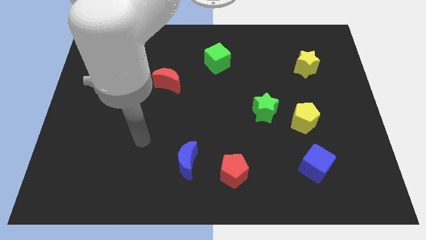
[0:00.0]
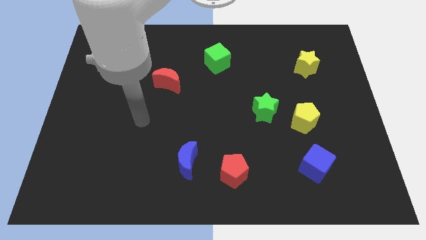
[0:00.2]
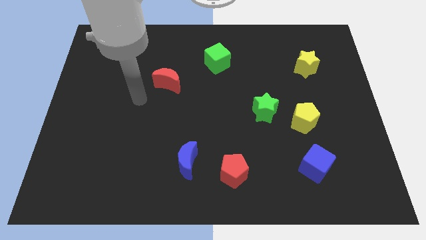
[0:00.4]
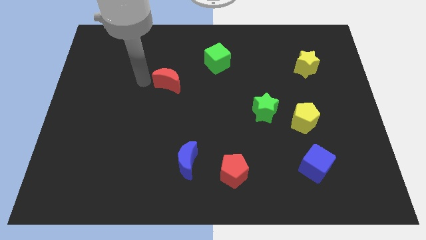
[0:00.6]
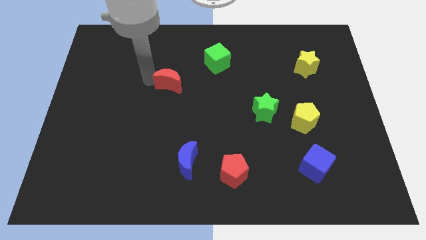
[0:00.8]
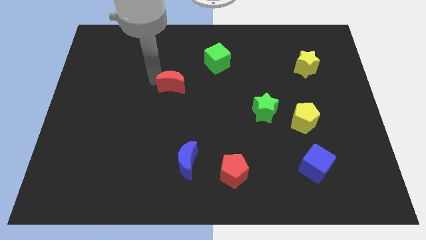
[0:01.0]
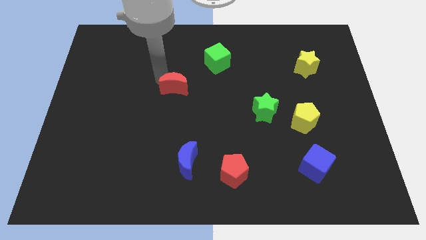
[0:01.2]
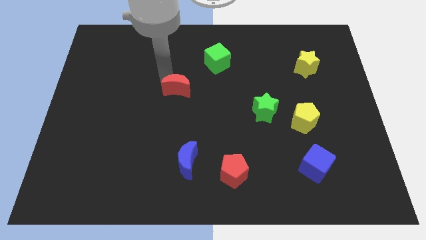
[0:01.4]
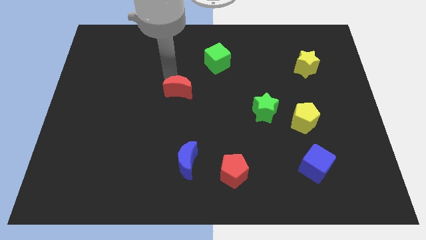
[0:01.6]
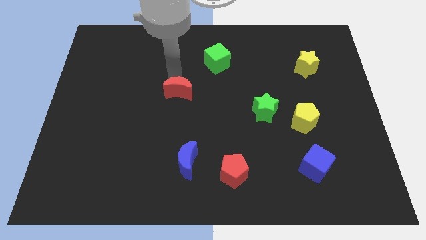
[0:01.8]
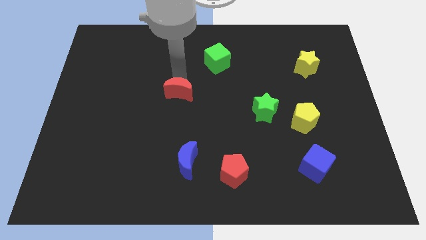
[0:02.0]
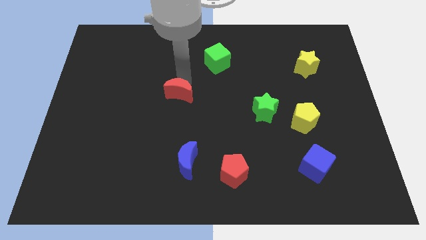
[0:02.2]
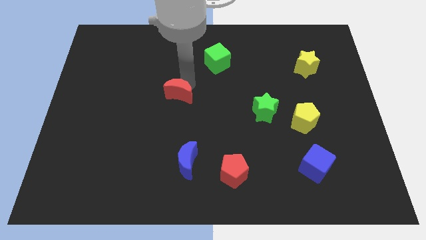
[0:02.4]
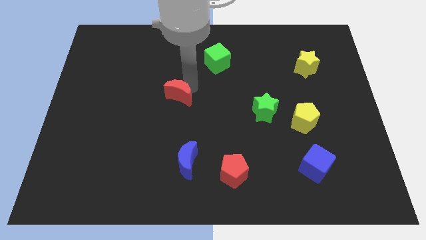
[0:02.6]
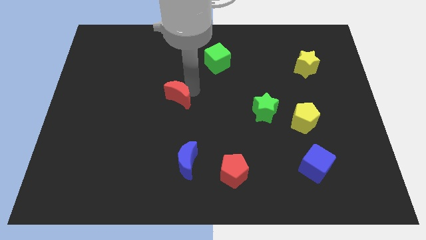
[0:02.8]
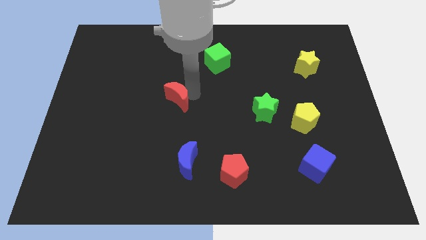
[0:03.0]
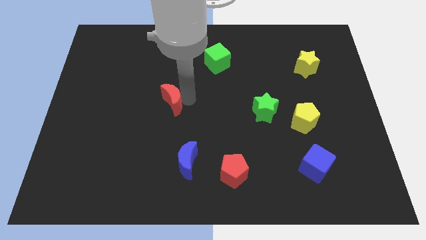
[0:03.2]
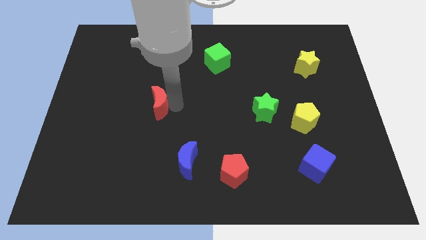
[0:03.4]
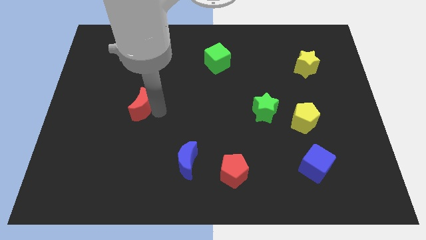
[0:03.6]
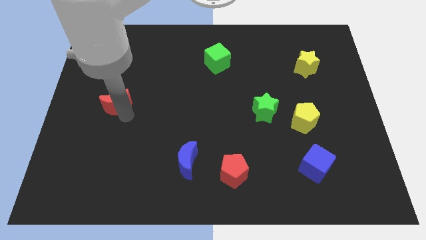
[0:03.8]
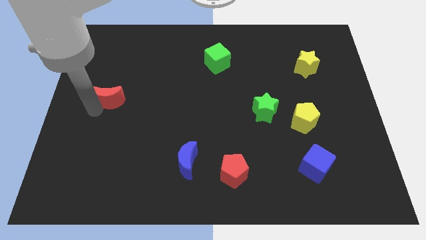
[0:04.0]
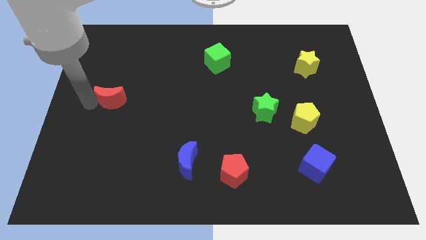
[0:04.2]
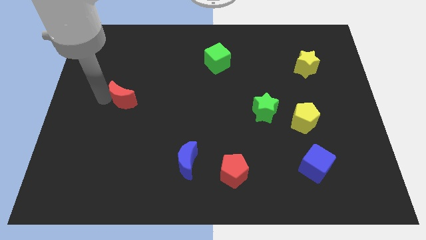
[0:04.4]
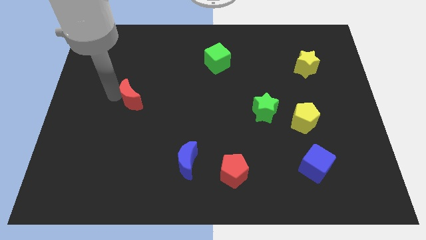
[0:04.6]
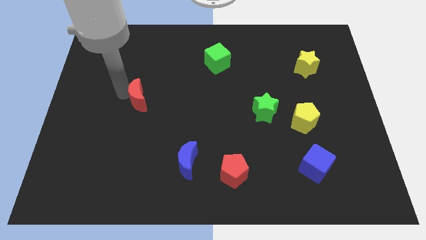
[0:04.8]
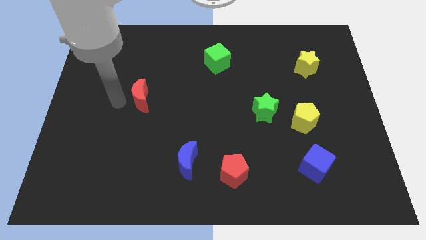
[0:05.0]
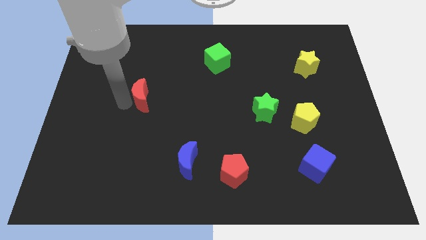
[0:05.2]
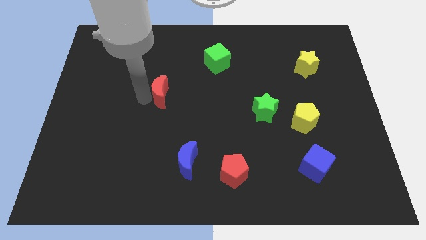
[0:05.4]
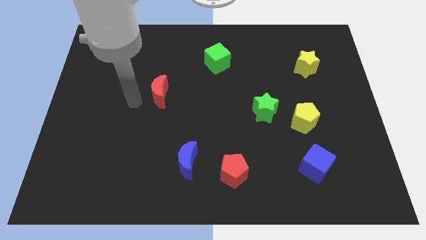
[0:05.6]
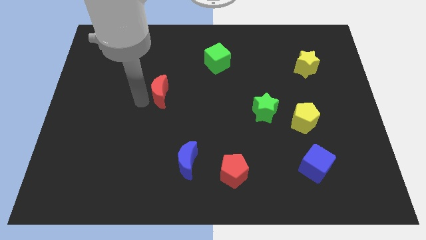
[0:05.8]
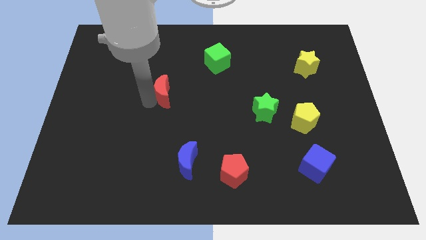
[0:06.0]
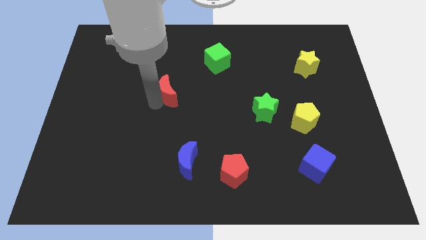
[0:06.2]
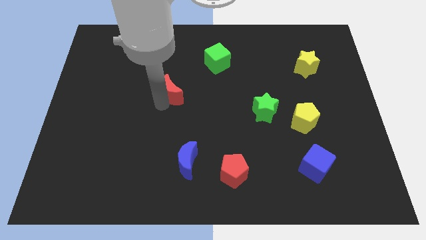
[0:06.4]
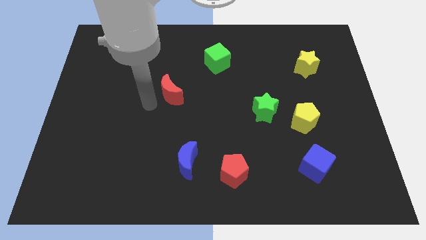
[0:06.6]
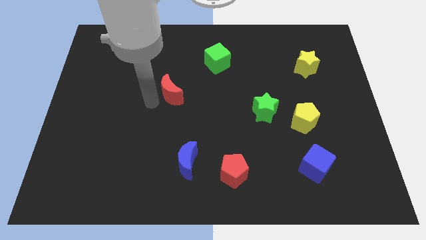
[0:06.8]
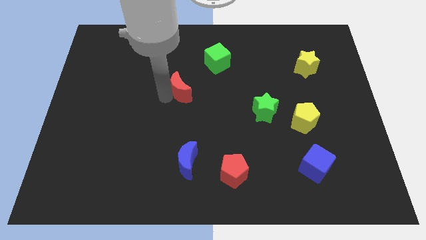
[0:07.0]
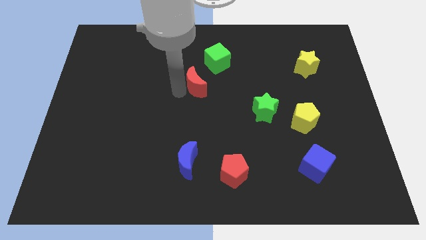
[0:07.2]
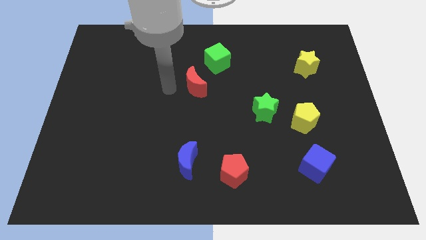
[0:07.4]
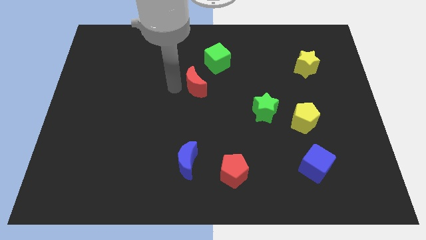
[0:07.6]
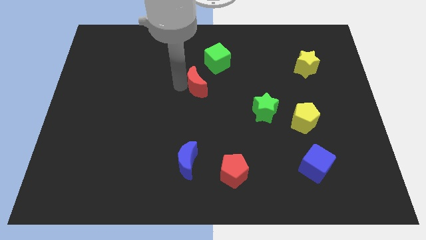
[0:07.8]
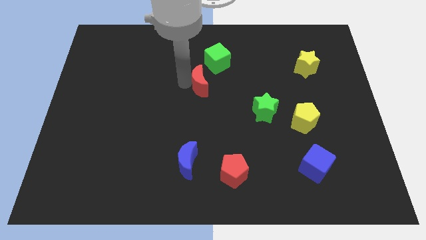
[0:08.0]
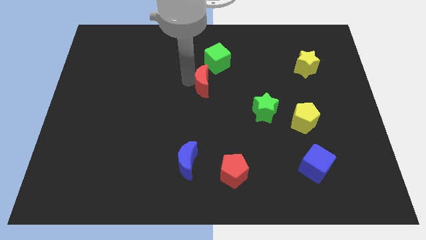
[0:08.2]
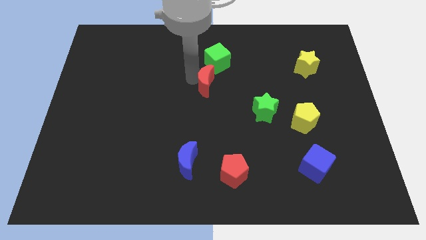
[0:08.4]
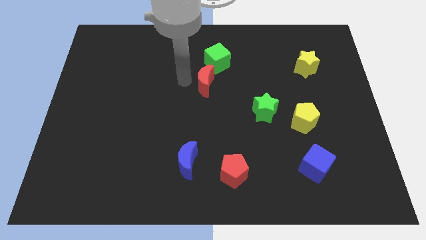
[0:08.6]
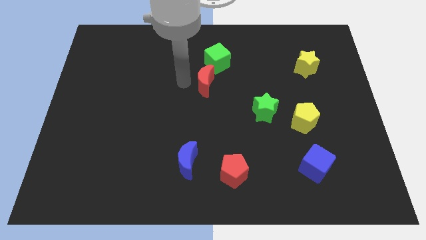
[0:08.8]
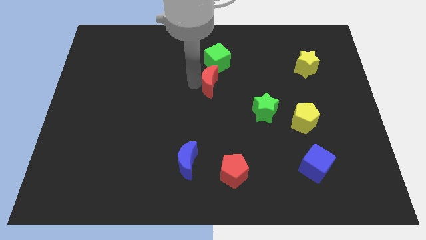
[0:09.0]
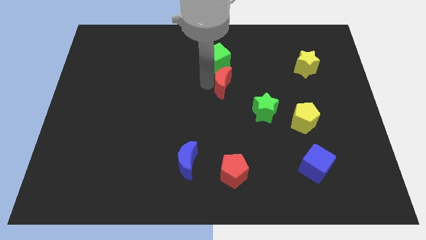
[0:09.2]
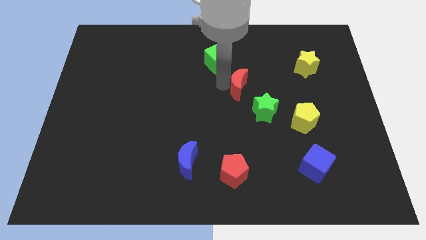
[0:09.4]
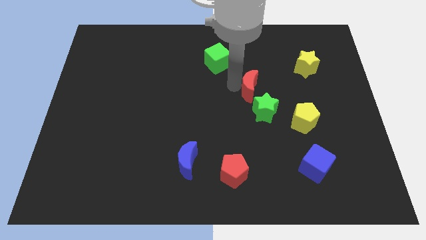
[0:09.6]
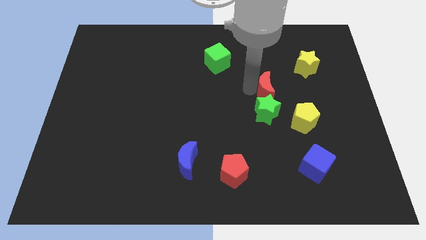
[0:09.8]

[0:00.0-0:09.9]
slide the red moon to the top right of the green star

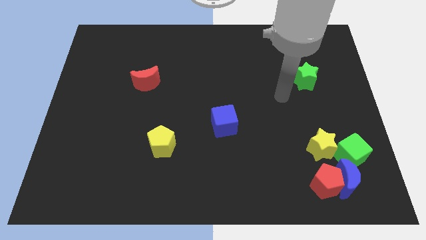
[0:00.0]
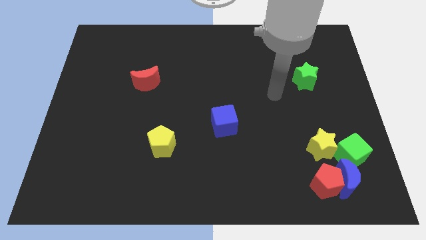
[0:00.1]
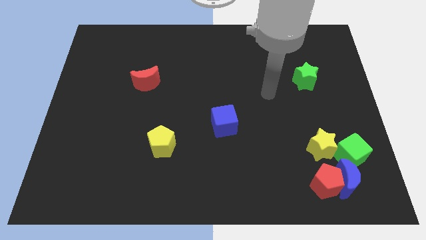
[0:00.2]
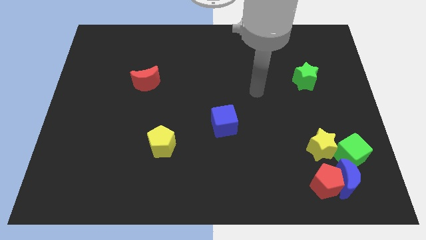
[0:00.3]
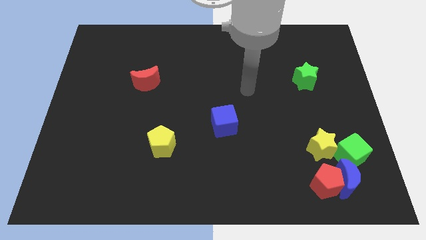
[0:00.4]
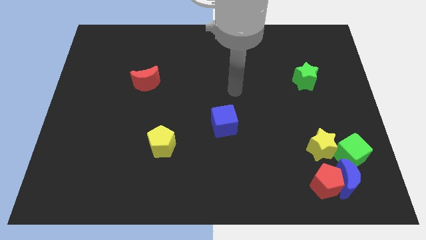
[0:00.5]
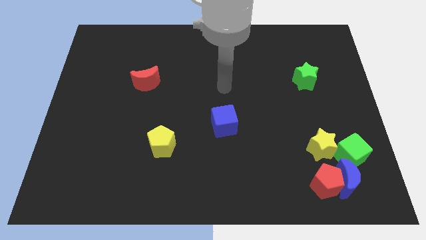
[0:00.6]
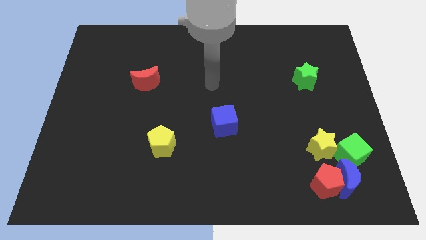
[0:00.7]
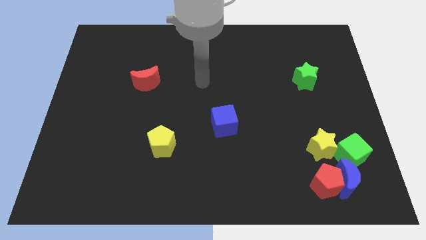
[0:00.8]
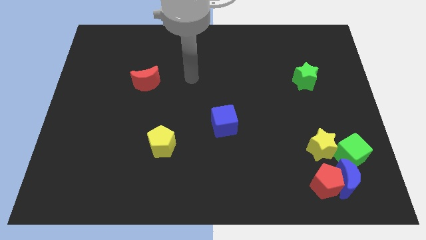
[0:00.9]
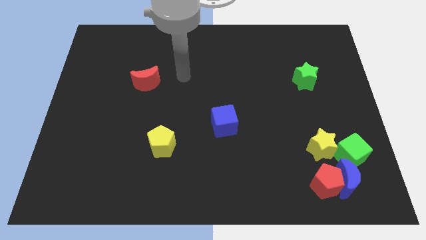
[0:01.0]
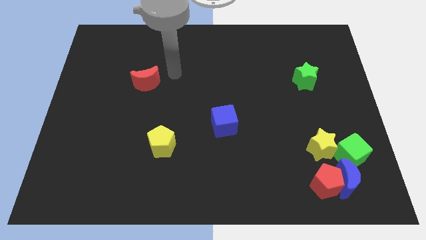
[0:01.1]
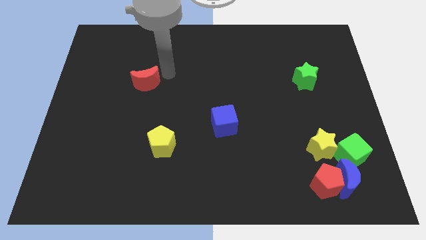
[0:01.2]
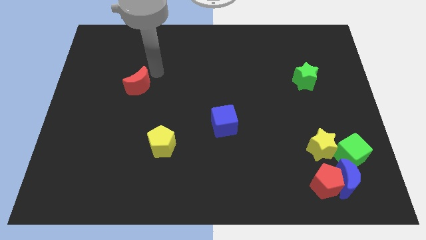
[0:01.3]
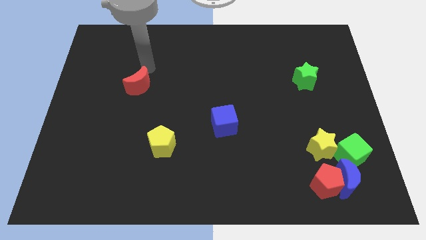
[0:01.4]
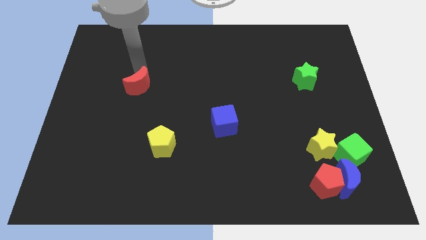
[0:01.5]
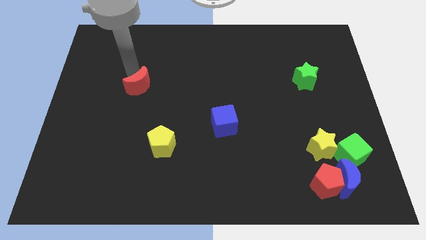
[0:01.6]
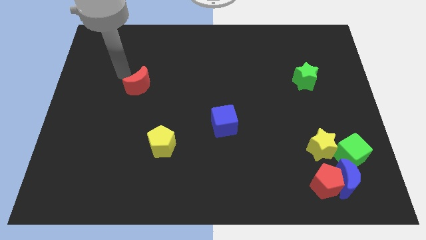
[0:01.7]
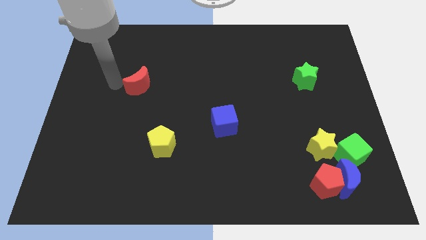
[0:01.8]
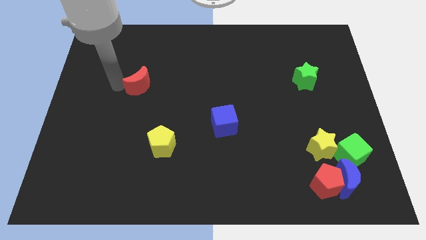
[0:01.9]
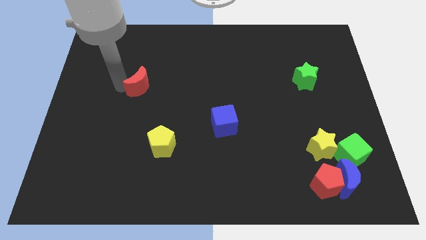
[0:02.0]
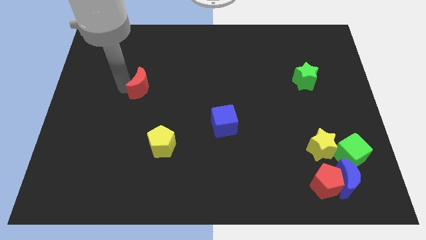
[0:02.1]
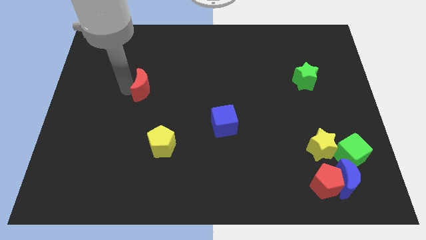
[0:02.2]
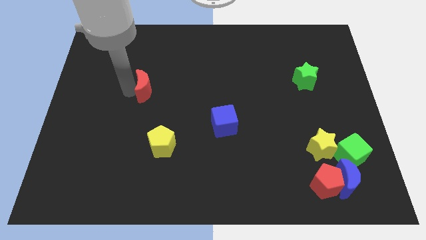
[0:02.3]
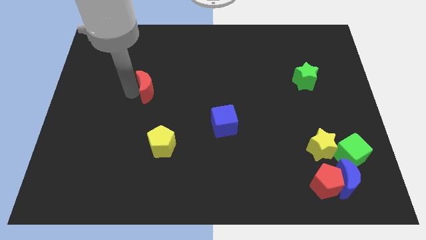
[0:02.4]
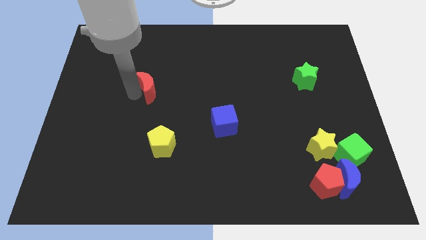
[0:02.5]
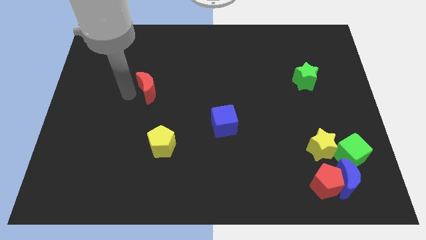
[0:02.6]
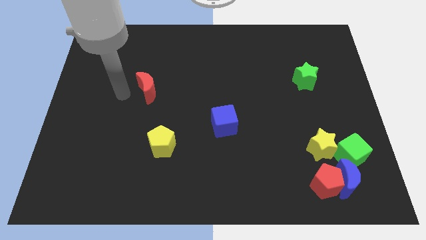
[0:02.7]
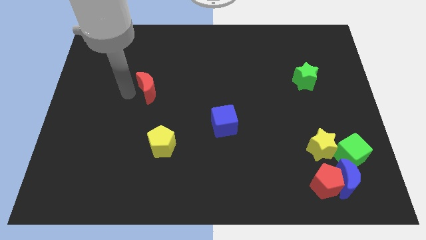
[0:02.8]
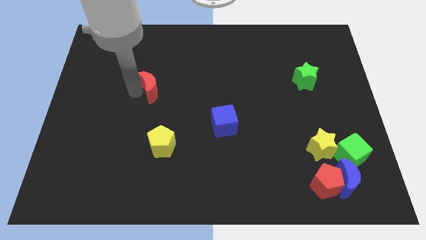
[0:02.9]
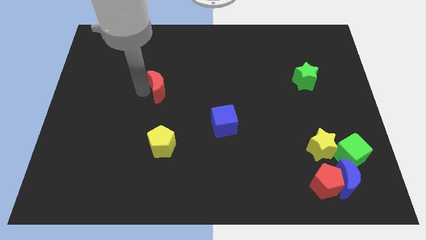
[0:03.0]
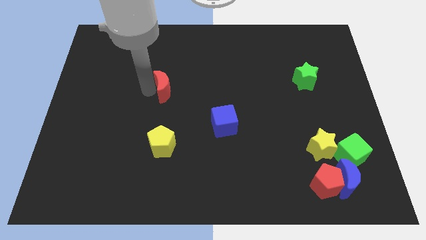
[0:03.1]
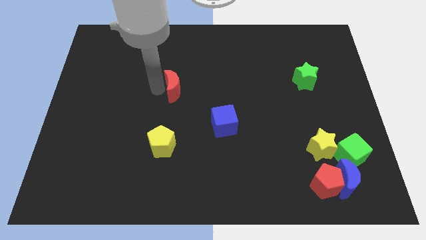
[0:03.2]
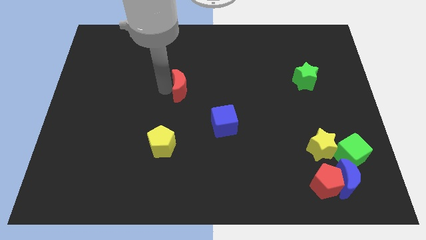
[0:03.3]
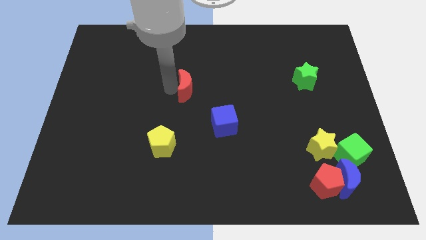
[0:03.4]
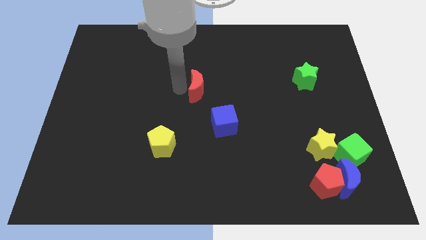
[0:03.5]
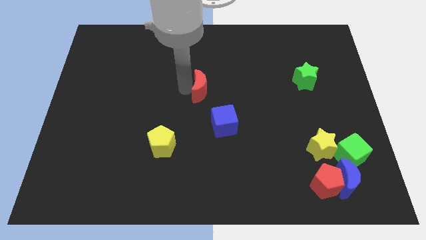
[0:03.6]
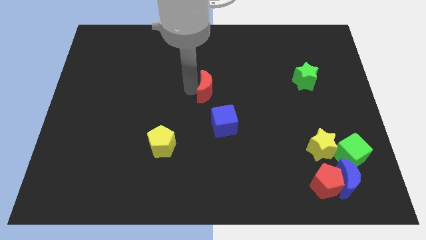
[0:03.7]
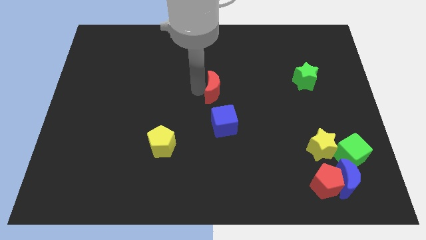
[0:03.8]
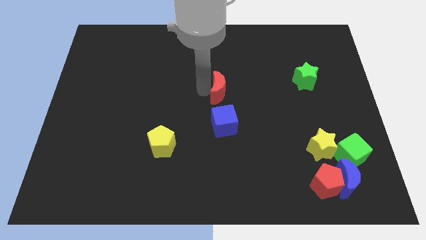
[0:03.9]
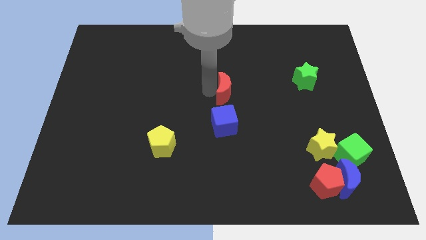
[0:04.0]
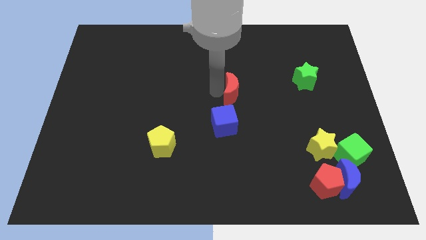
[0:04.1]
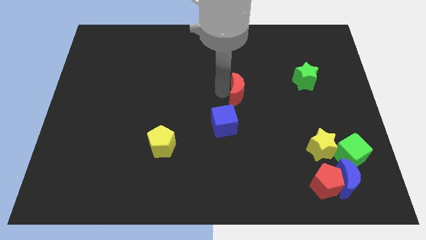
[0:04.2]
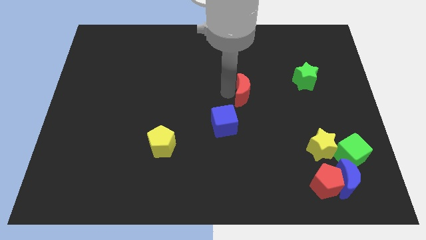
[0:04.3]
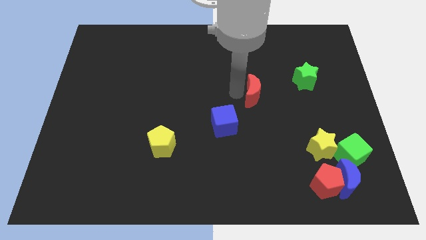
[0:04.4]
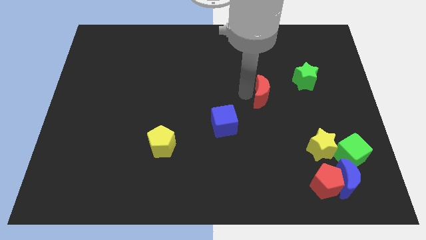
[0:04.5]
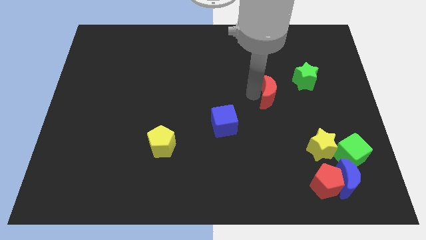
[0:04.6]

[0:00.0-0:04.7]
push the red moon to the bottom left side of the green star
